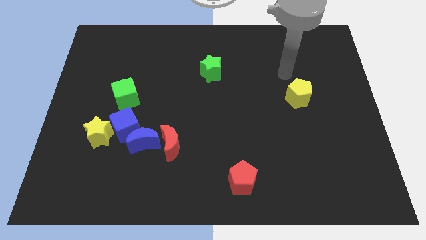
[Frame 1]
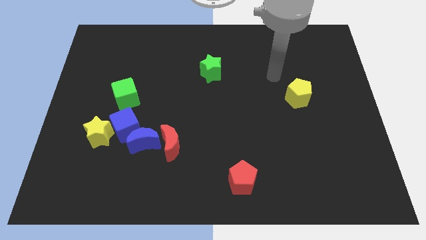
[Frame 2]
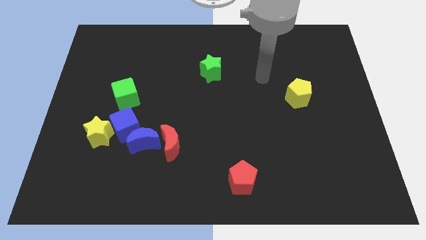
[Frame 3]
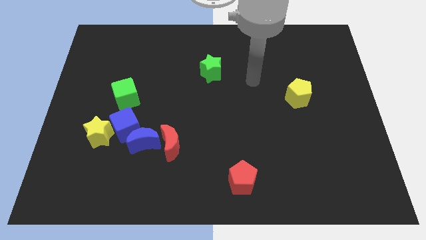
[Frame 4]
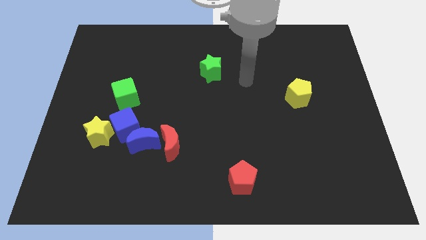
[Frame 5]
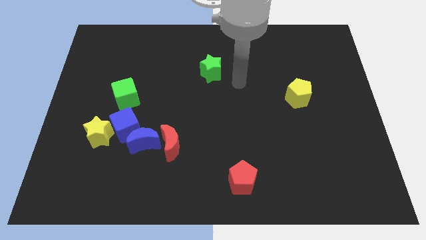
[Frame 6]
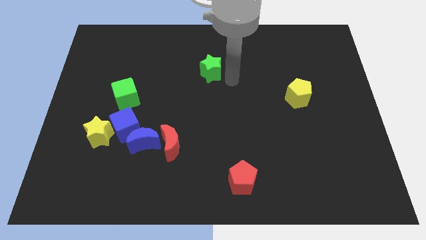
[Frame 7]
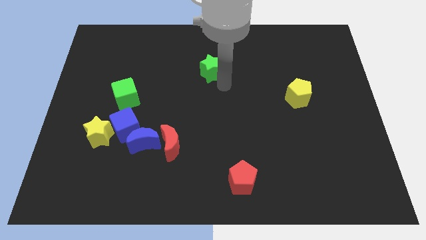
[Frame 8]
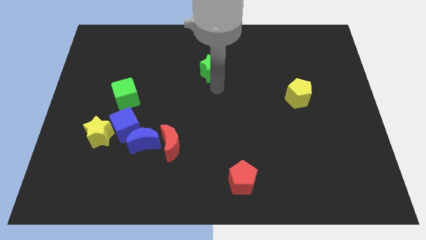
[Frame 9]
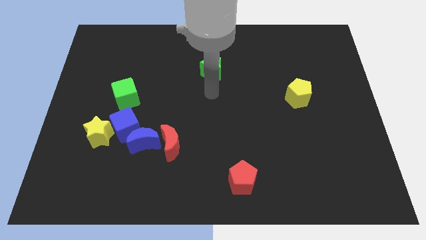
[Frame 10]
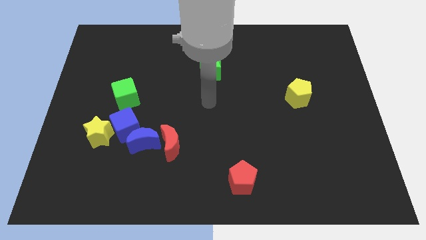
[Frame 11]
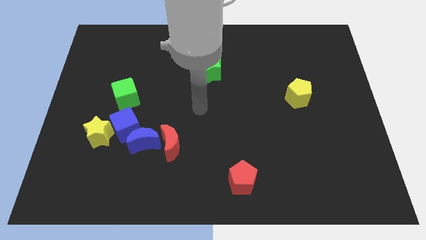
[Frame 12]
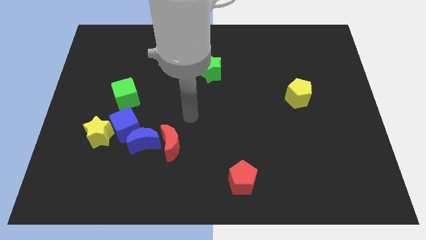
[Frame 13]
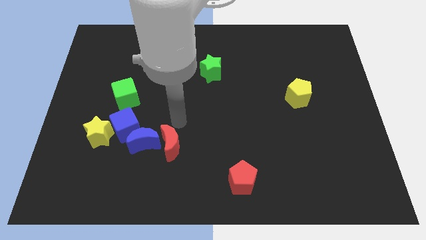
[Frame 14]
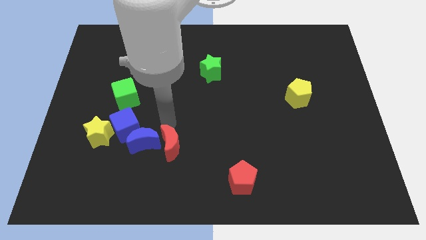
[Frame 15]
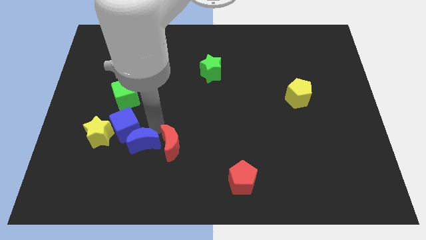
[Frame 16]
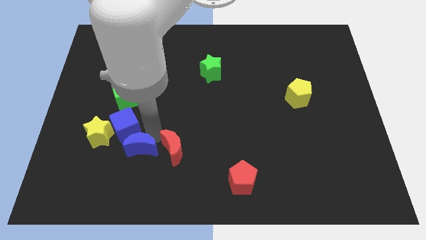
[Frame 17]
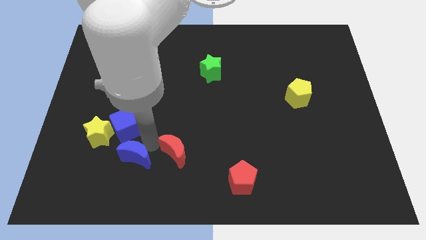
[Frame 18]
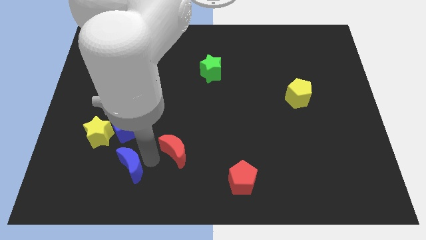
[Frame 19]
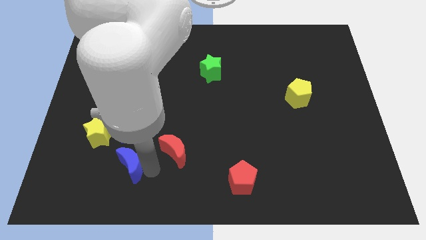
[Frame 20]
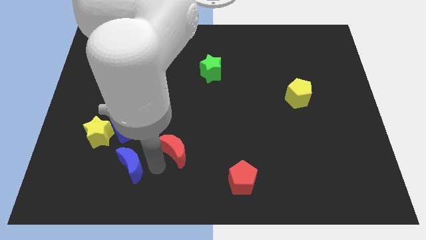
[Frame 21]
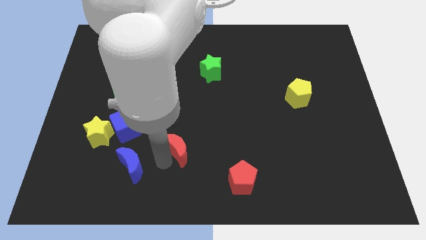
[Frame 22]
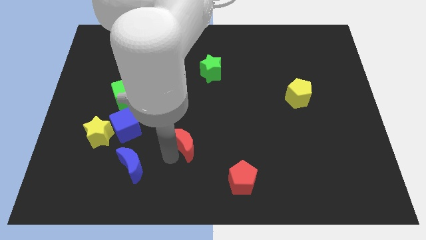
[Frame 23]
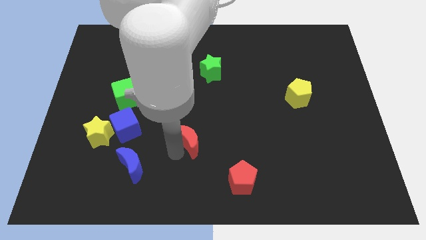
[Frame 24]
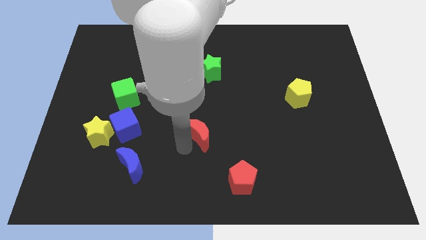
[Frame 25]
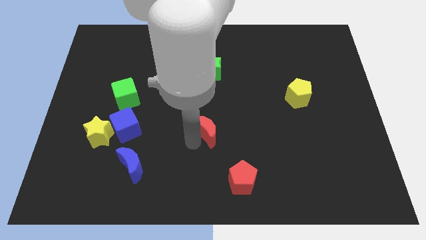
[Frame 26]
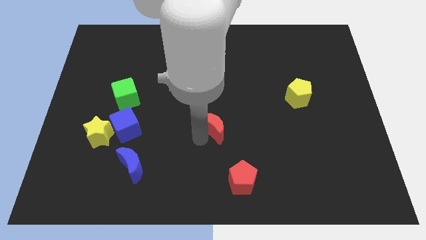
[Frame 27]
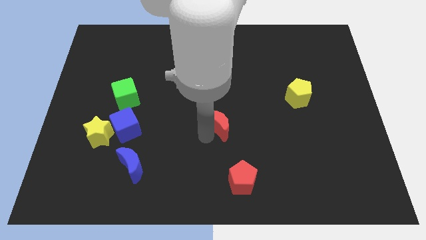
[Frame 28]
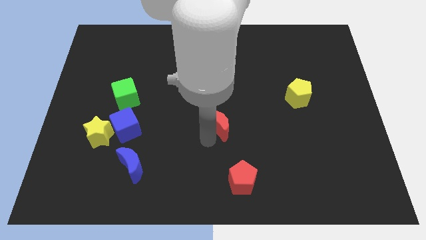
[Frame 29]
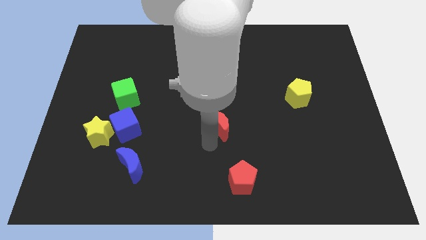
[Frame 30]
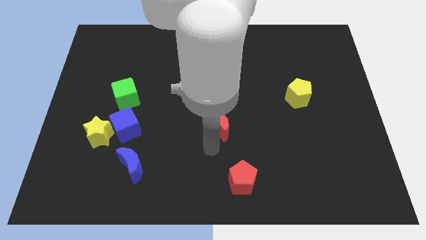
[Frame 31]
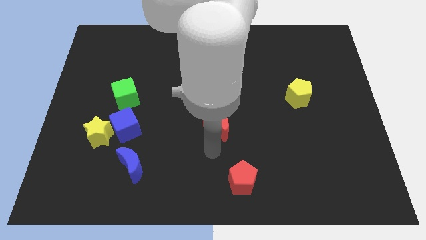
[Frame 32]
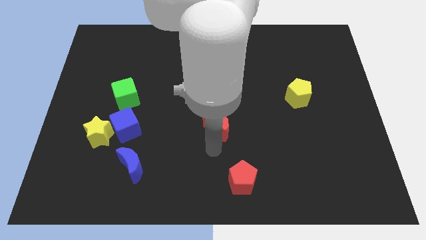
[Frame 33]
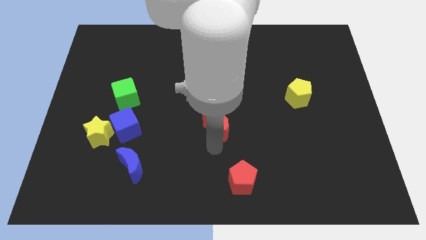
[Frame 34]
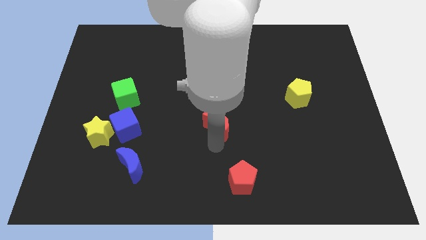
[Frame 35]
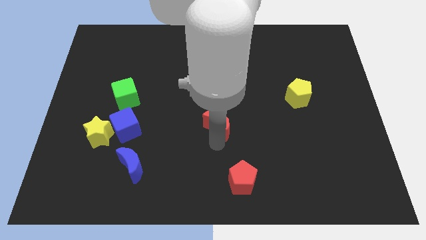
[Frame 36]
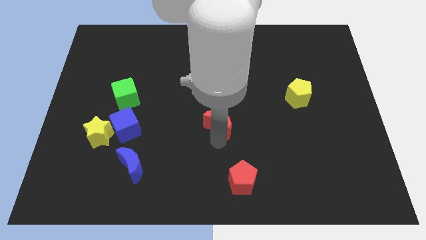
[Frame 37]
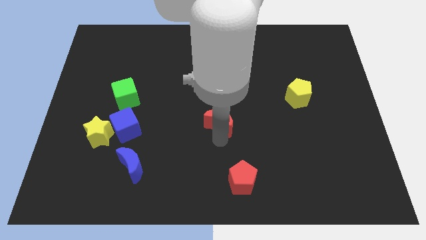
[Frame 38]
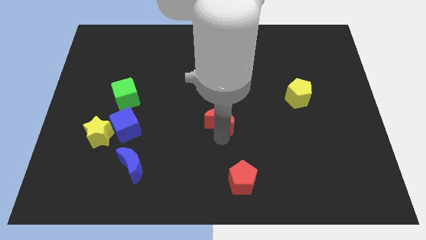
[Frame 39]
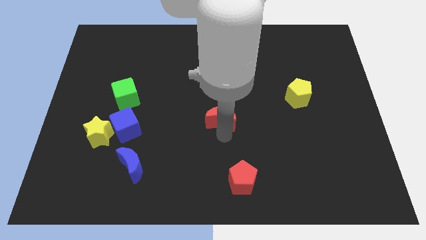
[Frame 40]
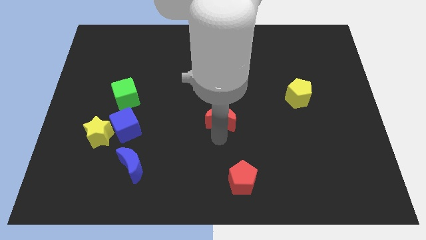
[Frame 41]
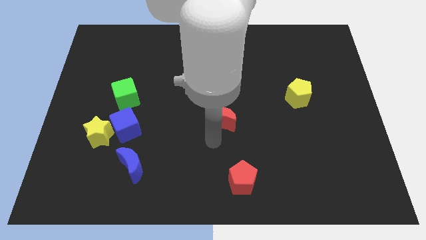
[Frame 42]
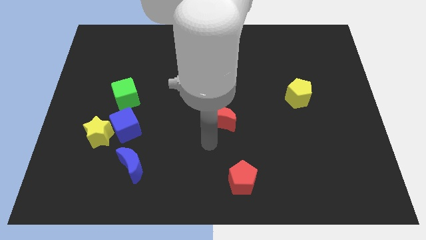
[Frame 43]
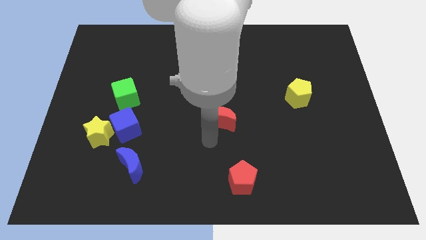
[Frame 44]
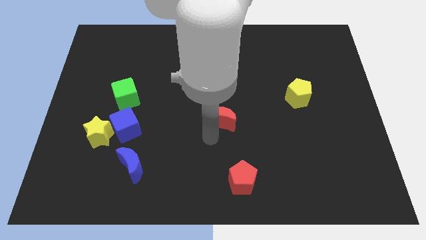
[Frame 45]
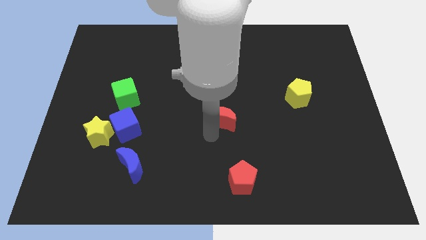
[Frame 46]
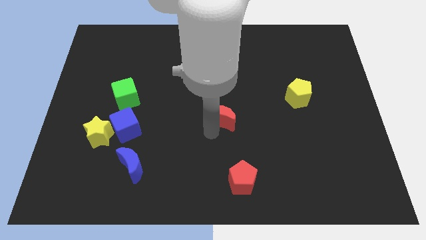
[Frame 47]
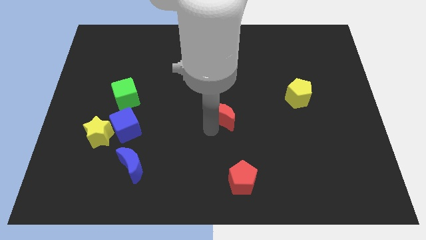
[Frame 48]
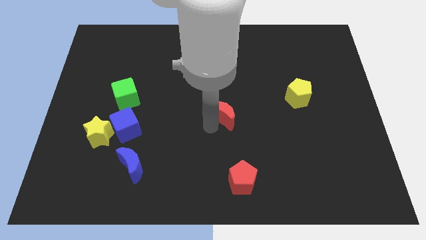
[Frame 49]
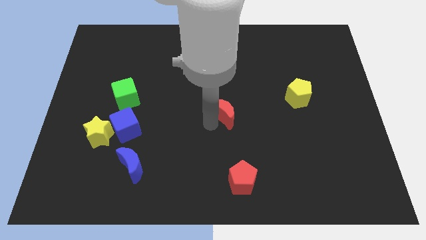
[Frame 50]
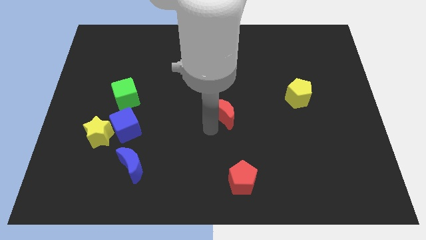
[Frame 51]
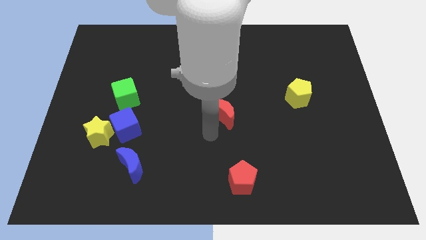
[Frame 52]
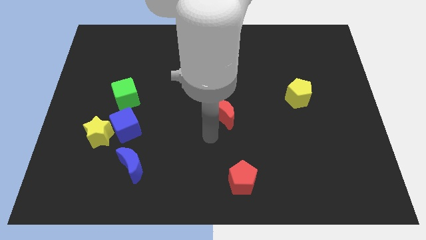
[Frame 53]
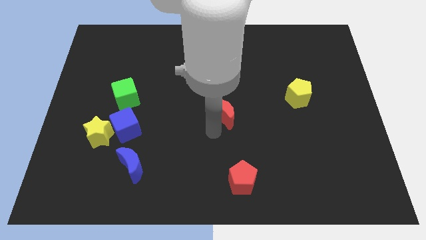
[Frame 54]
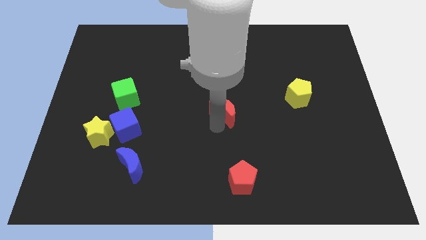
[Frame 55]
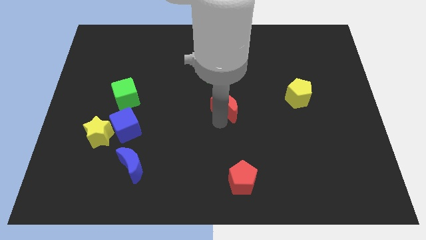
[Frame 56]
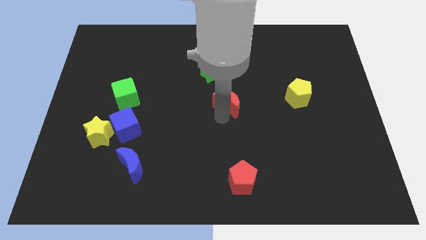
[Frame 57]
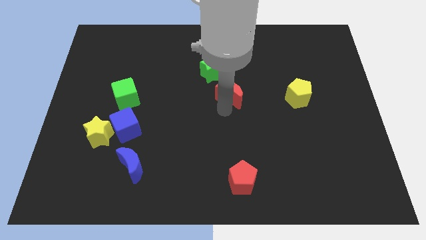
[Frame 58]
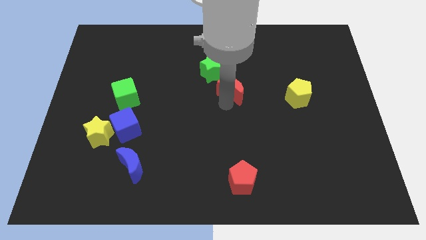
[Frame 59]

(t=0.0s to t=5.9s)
move the red moon upwards and then right

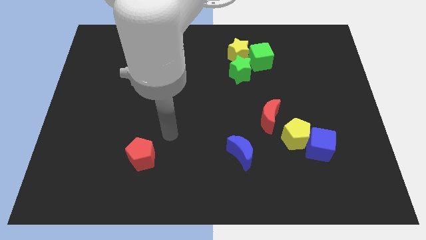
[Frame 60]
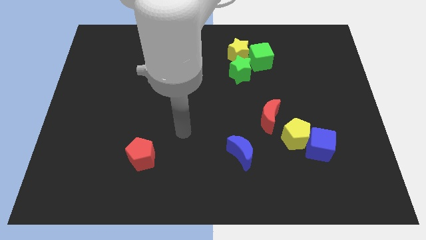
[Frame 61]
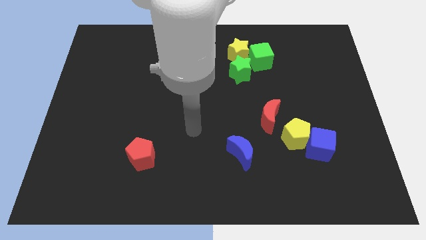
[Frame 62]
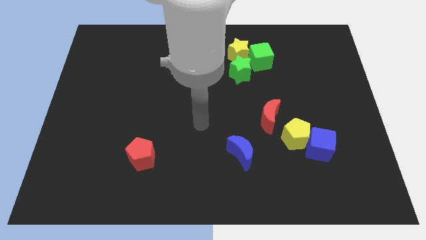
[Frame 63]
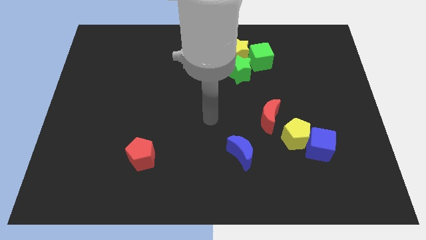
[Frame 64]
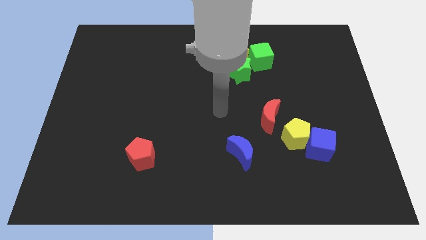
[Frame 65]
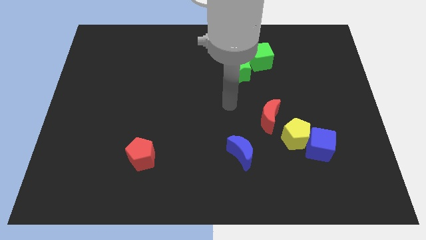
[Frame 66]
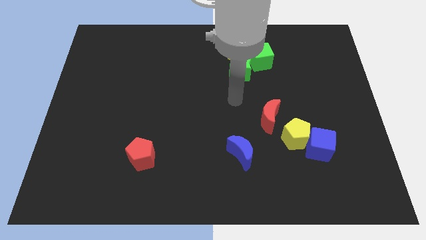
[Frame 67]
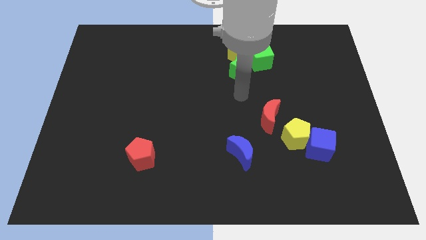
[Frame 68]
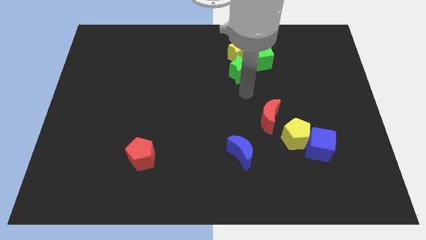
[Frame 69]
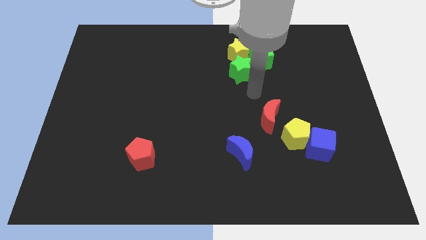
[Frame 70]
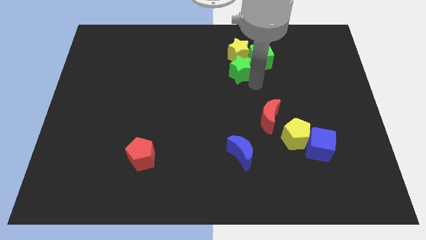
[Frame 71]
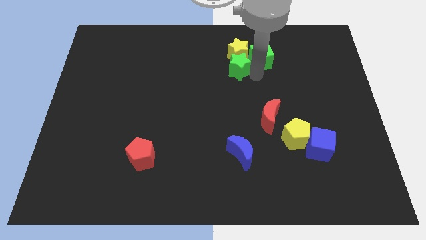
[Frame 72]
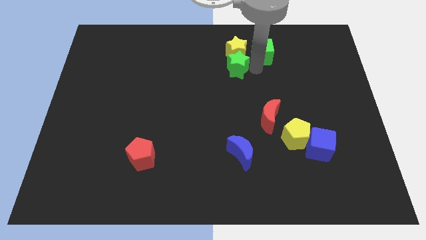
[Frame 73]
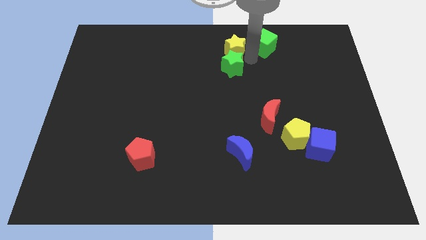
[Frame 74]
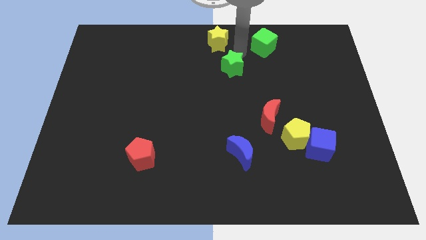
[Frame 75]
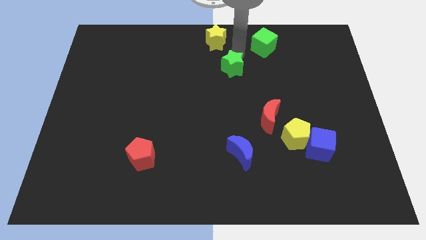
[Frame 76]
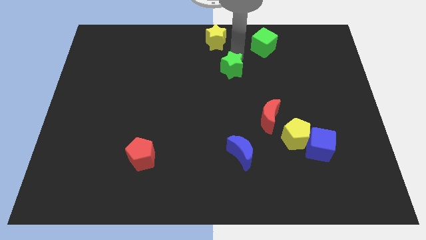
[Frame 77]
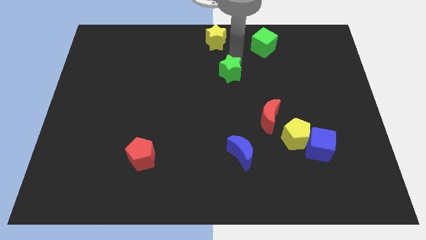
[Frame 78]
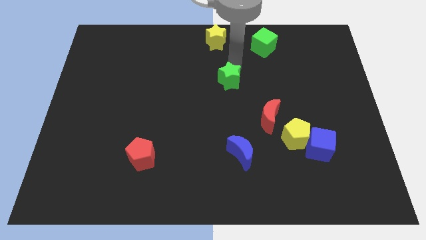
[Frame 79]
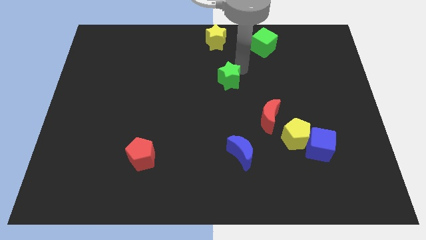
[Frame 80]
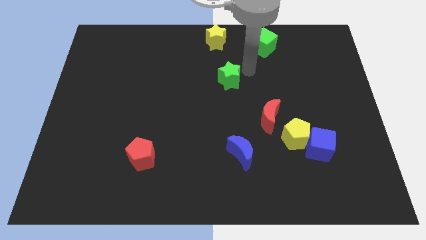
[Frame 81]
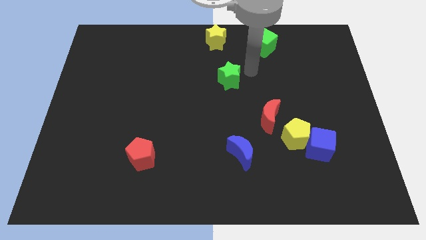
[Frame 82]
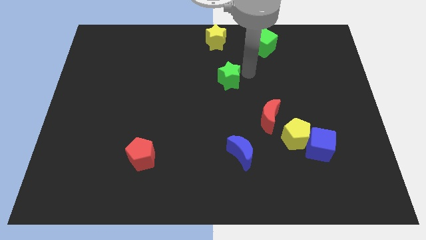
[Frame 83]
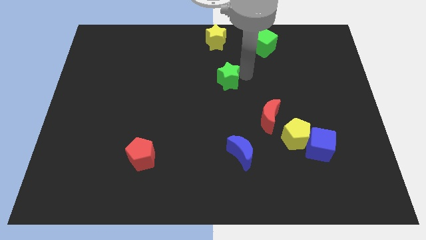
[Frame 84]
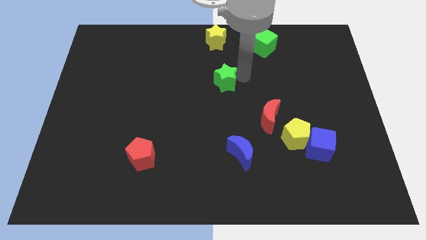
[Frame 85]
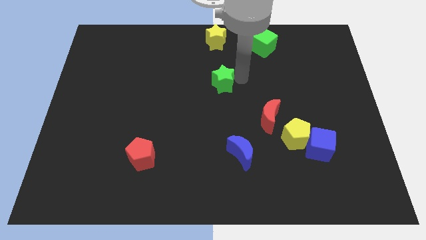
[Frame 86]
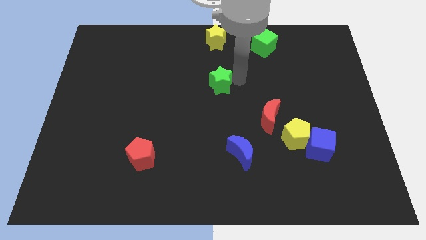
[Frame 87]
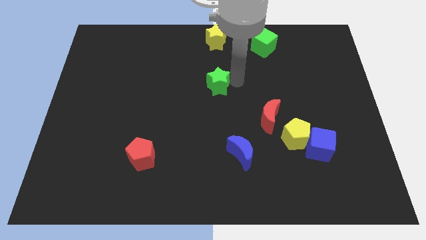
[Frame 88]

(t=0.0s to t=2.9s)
slide the green star down and to the left slightly
